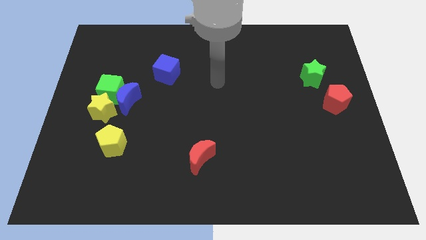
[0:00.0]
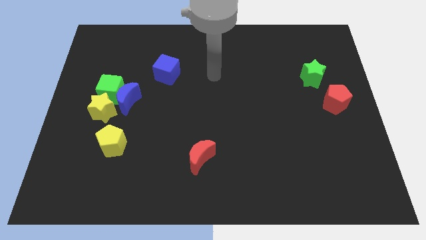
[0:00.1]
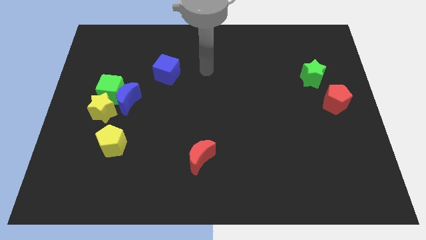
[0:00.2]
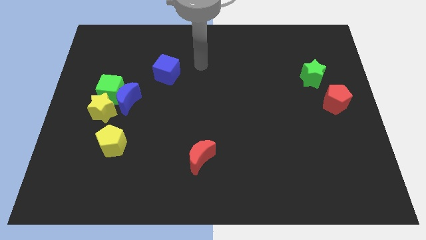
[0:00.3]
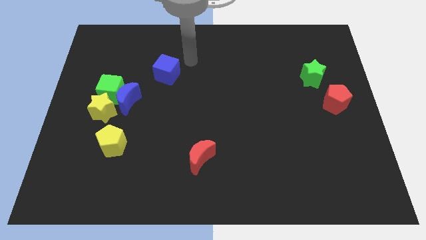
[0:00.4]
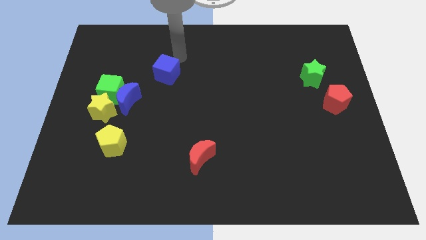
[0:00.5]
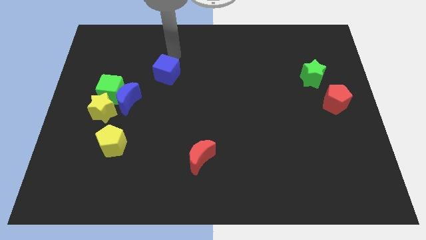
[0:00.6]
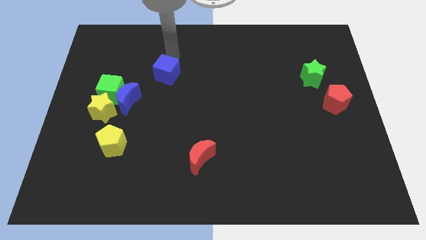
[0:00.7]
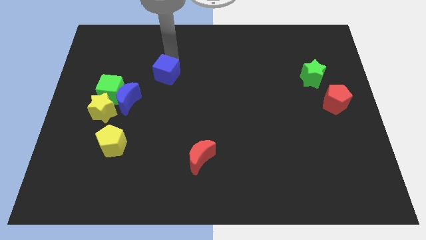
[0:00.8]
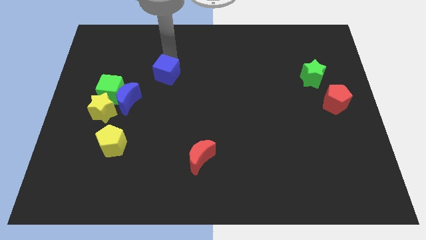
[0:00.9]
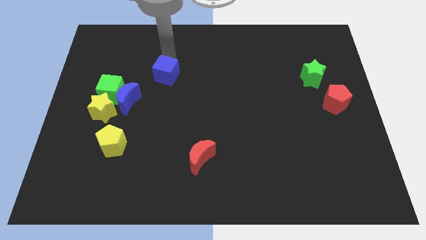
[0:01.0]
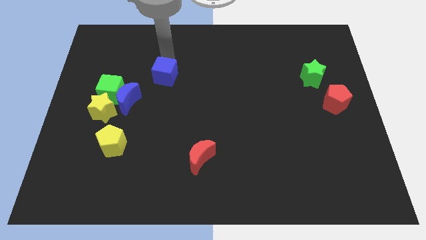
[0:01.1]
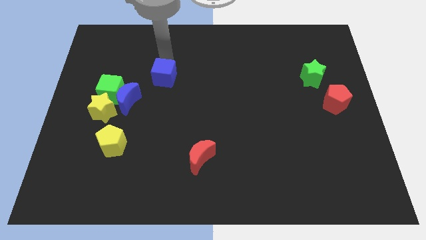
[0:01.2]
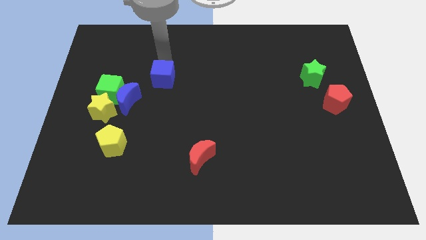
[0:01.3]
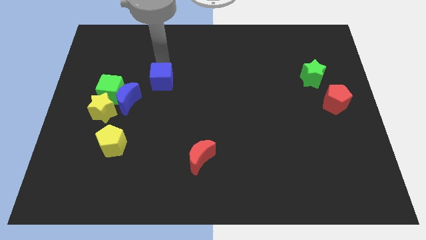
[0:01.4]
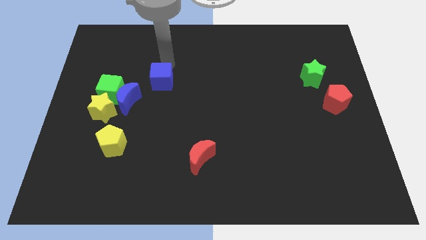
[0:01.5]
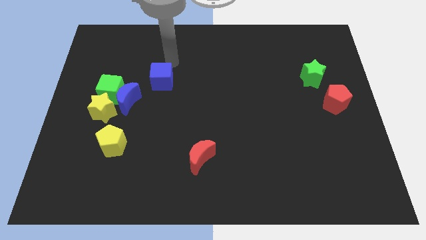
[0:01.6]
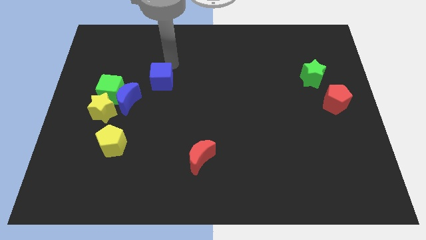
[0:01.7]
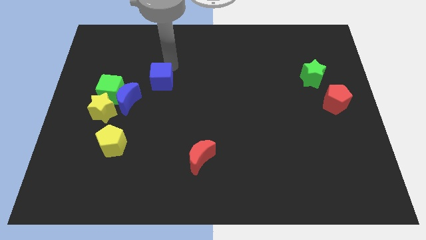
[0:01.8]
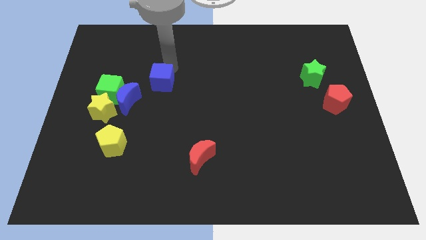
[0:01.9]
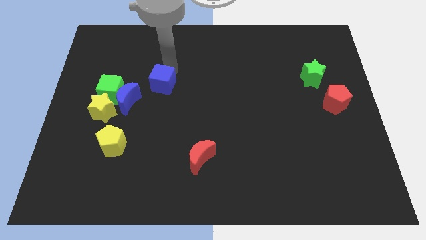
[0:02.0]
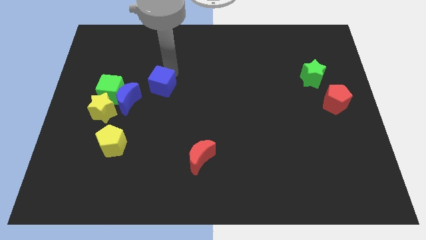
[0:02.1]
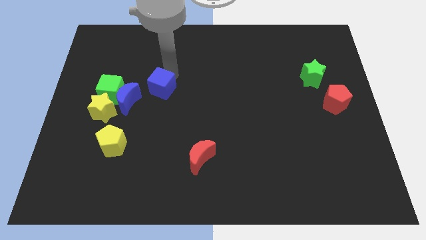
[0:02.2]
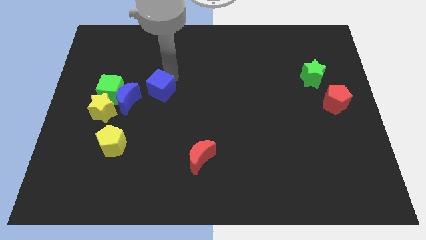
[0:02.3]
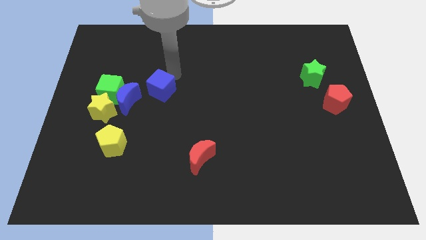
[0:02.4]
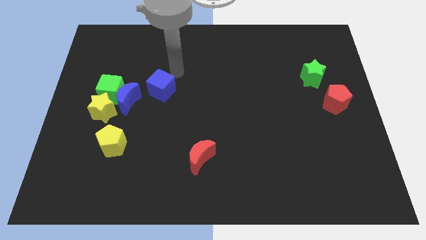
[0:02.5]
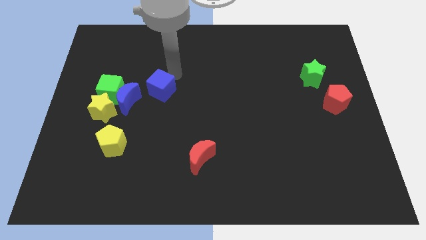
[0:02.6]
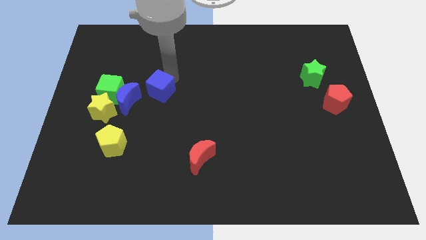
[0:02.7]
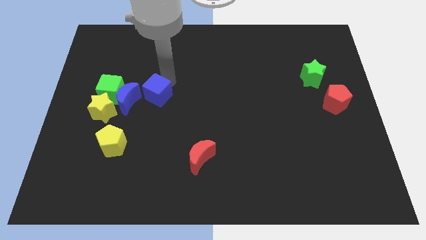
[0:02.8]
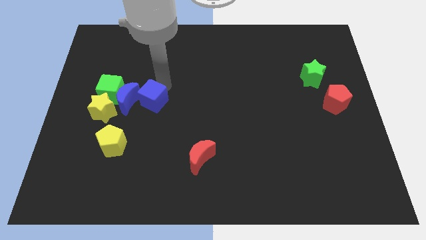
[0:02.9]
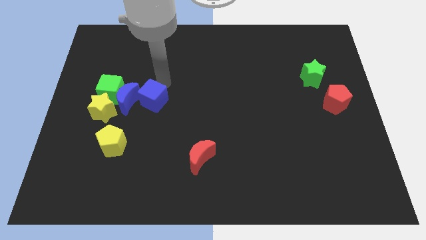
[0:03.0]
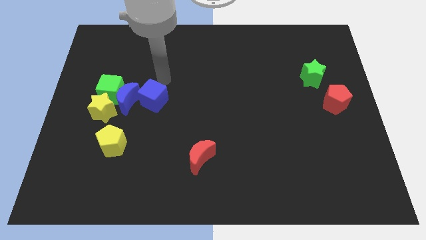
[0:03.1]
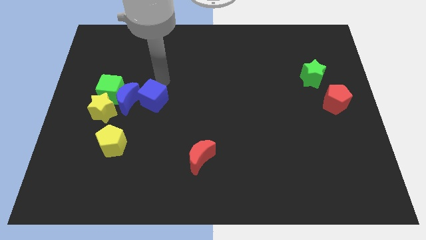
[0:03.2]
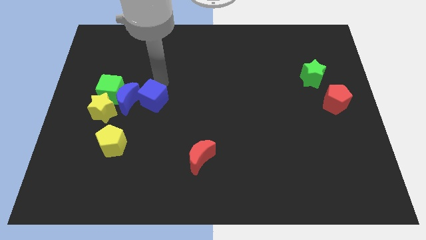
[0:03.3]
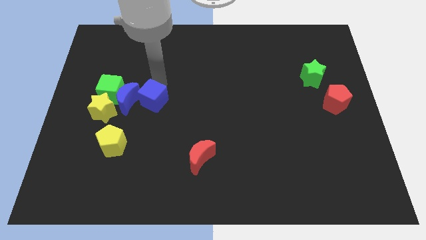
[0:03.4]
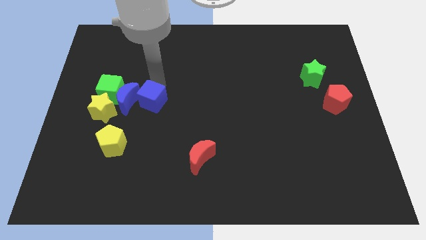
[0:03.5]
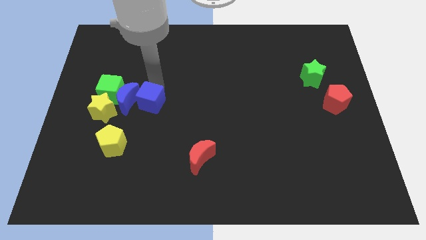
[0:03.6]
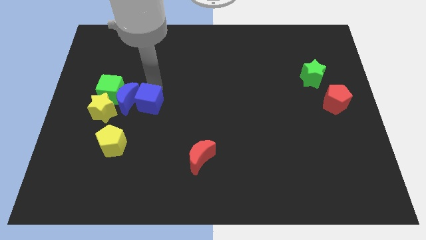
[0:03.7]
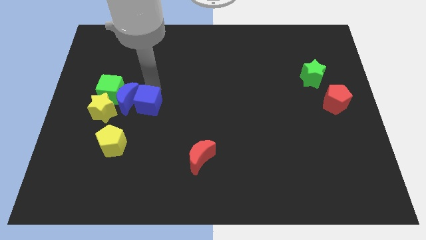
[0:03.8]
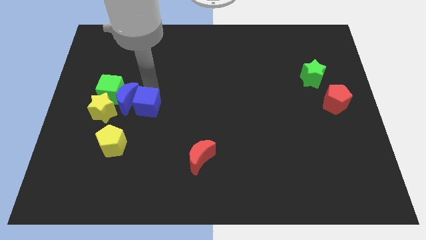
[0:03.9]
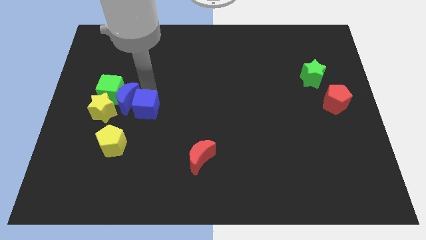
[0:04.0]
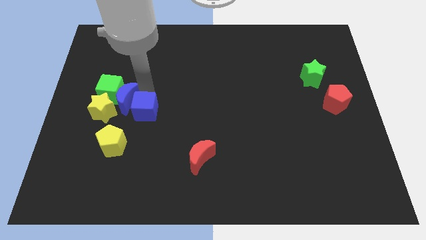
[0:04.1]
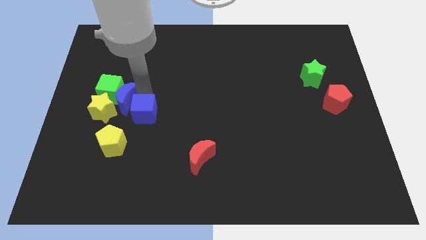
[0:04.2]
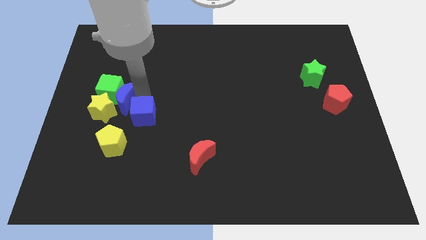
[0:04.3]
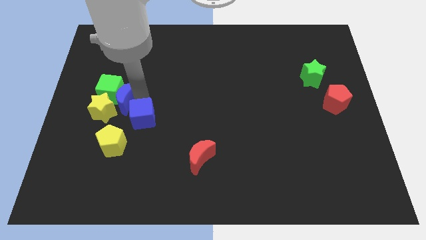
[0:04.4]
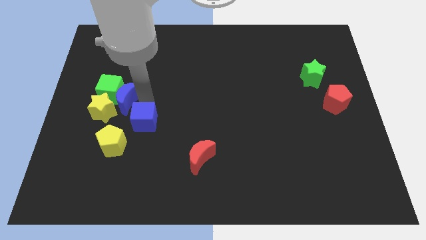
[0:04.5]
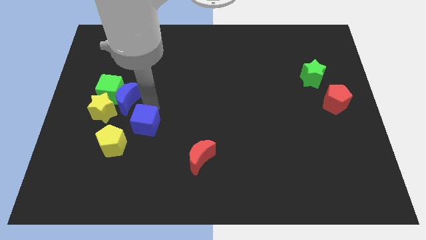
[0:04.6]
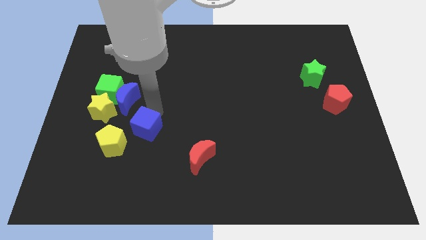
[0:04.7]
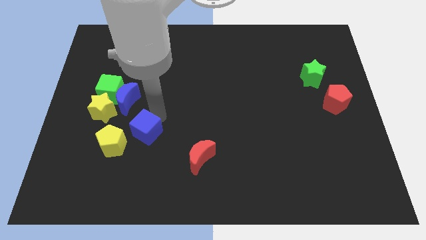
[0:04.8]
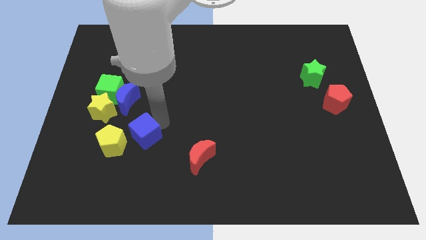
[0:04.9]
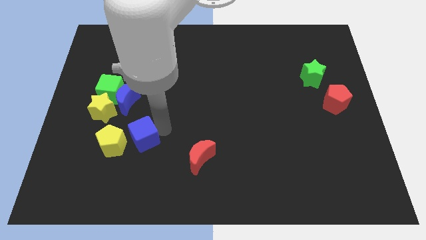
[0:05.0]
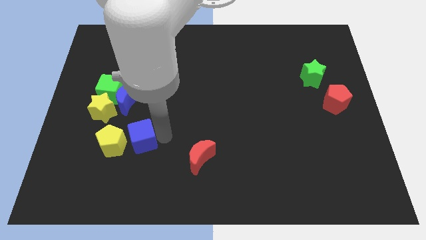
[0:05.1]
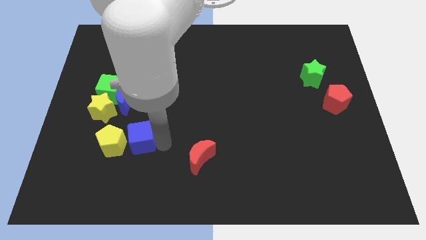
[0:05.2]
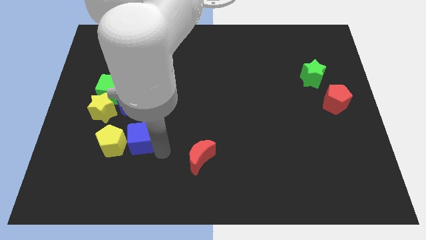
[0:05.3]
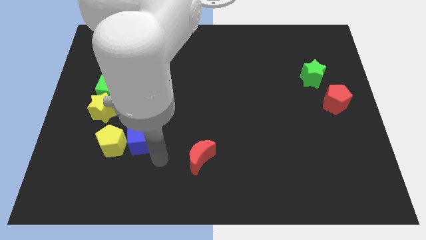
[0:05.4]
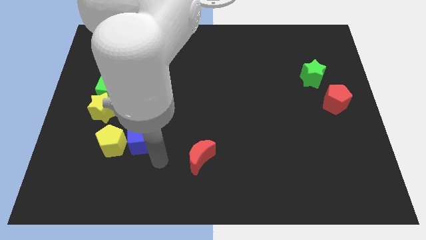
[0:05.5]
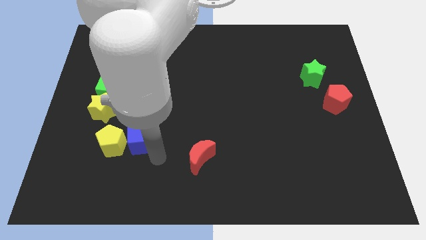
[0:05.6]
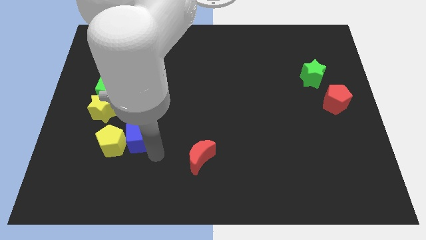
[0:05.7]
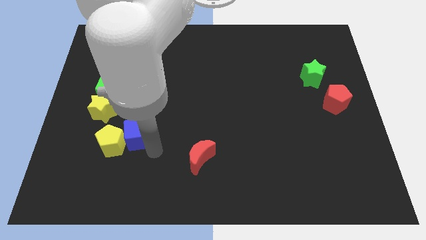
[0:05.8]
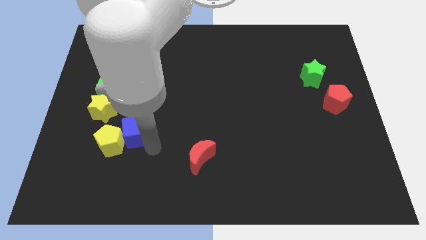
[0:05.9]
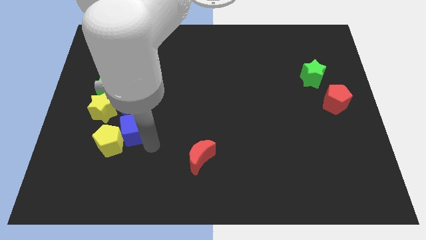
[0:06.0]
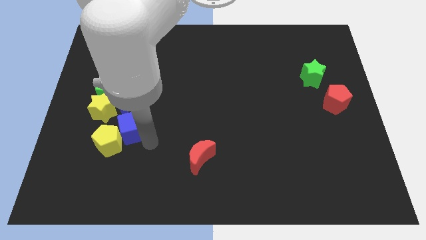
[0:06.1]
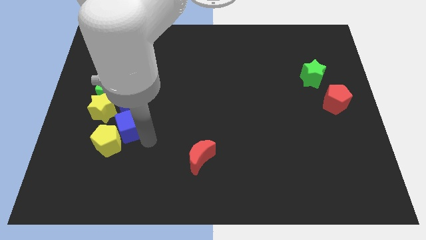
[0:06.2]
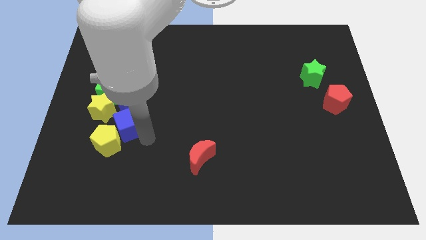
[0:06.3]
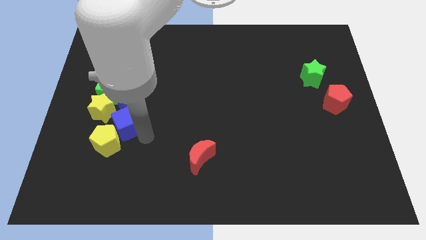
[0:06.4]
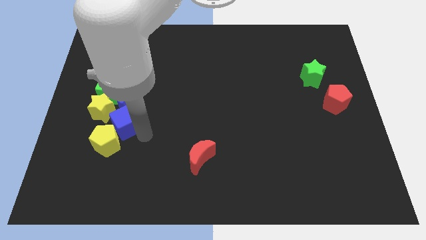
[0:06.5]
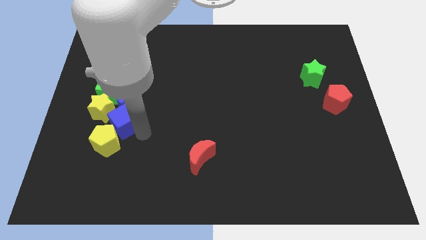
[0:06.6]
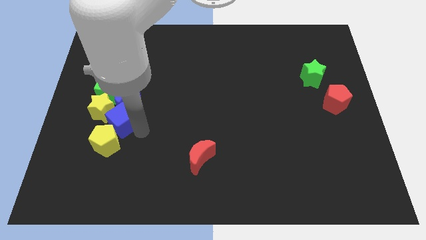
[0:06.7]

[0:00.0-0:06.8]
move the blue cube next to the yellow star

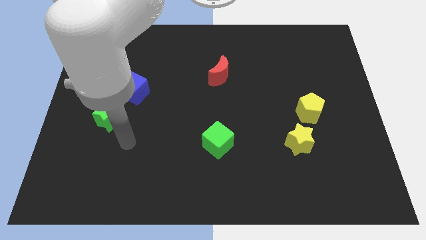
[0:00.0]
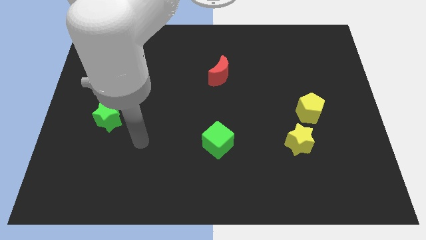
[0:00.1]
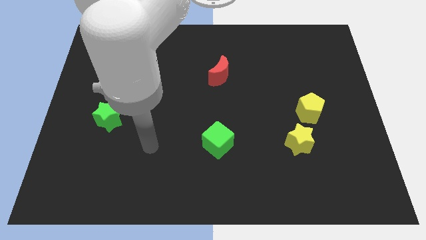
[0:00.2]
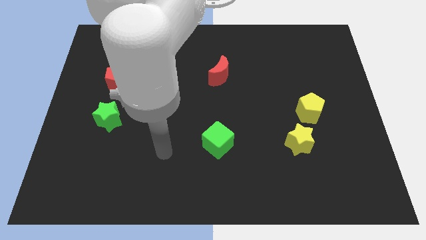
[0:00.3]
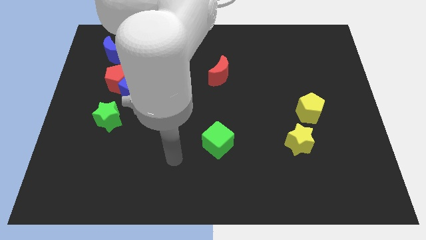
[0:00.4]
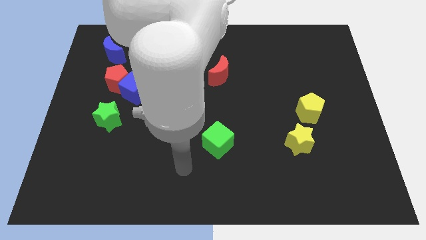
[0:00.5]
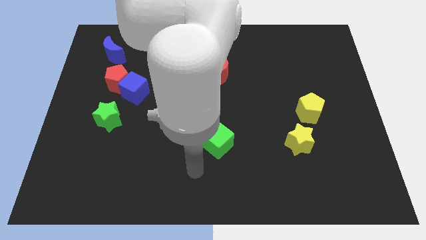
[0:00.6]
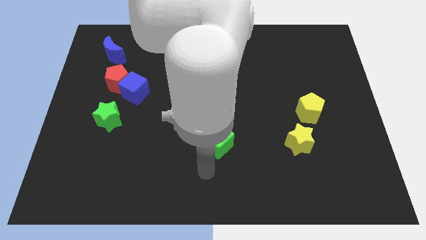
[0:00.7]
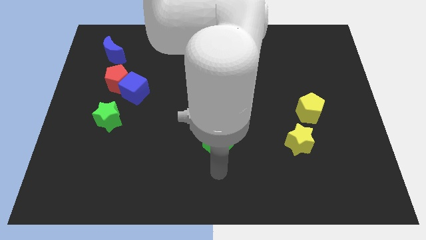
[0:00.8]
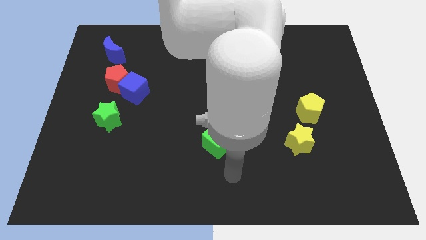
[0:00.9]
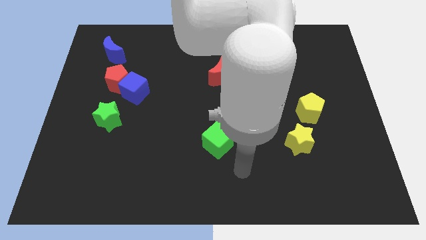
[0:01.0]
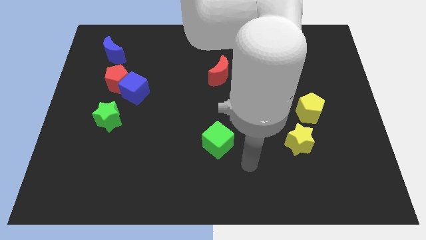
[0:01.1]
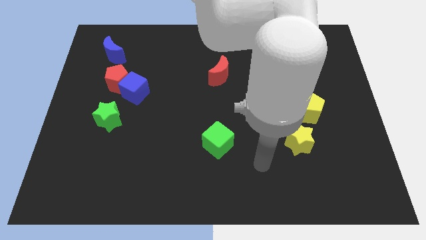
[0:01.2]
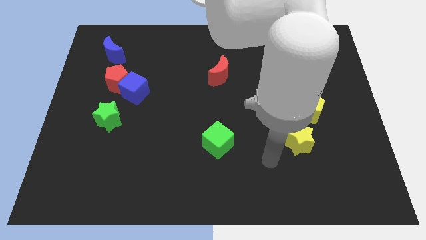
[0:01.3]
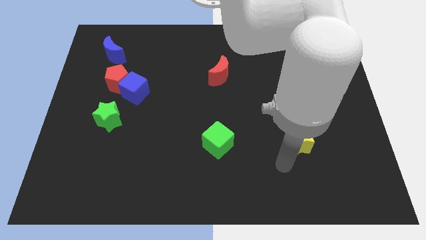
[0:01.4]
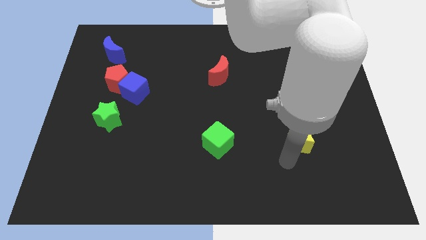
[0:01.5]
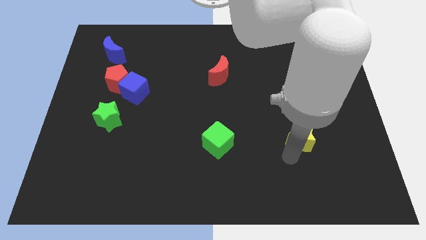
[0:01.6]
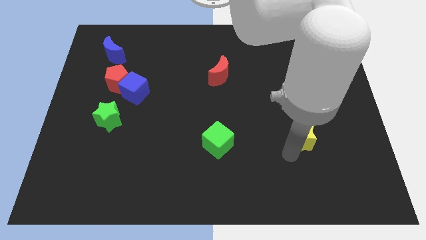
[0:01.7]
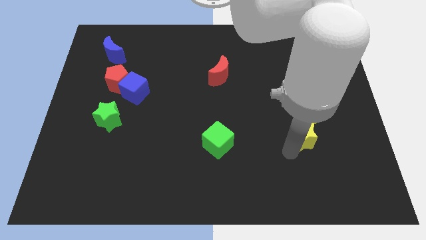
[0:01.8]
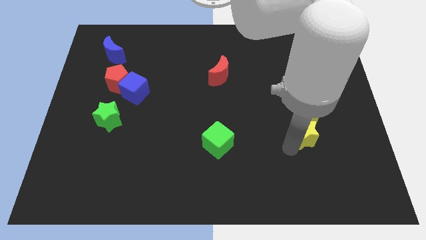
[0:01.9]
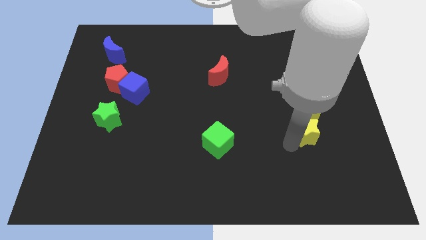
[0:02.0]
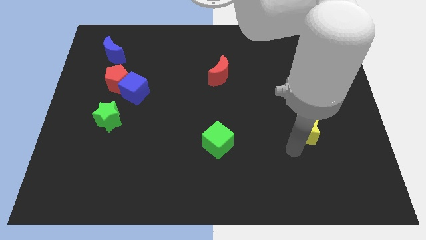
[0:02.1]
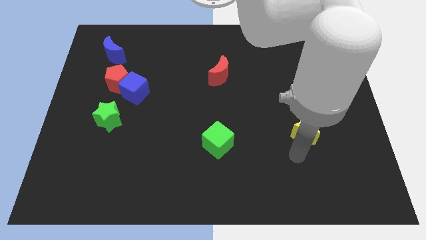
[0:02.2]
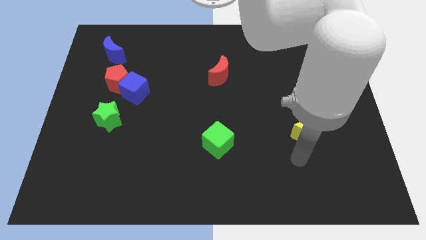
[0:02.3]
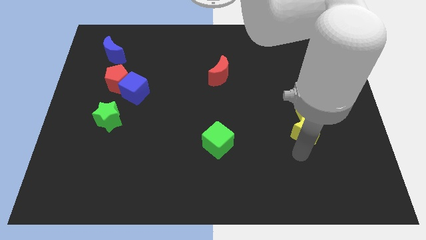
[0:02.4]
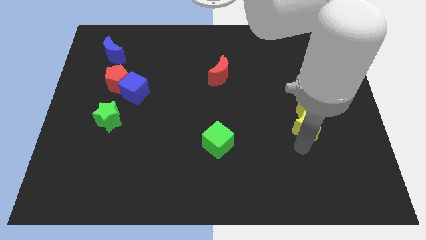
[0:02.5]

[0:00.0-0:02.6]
move the yellow star next to the yellow pentagon
